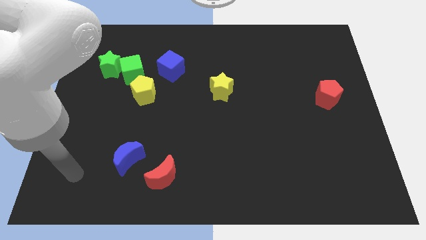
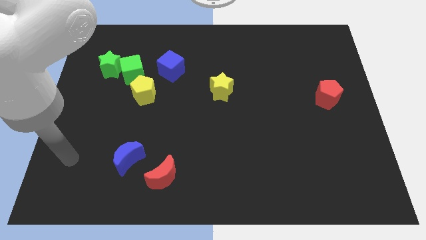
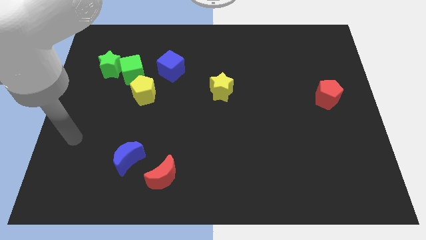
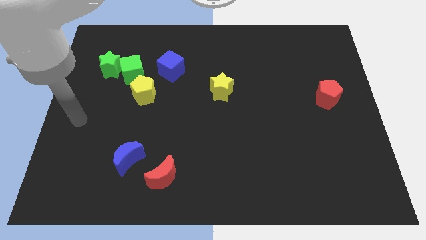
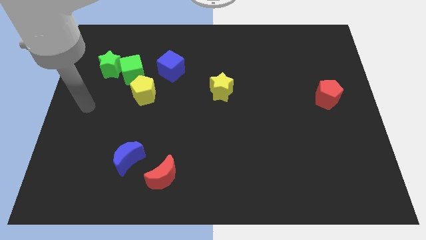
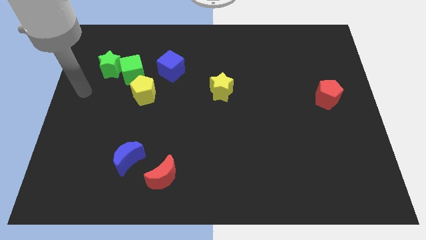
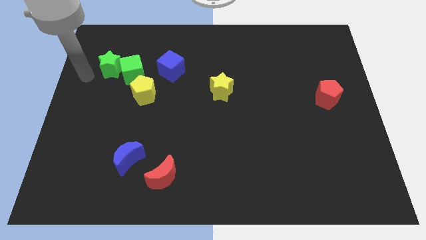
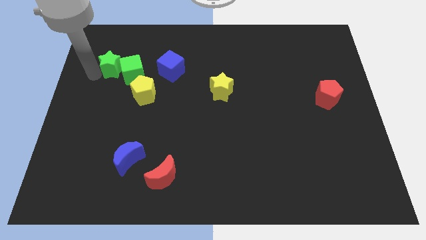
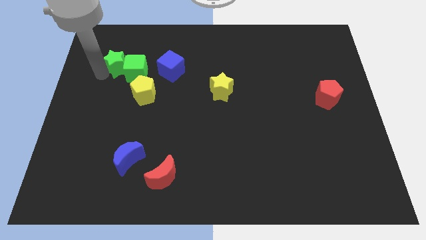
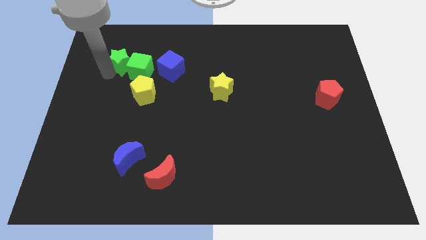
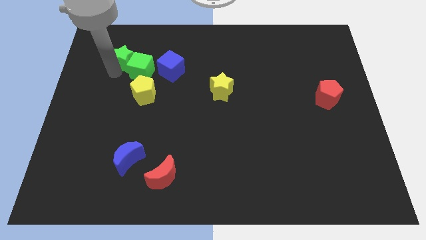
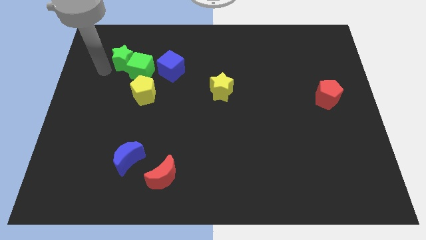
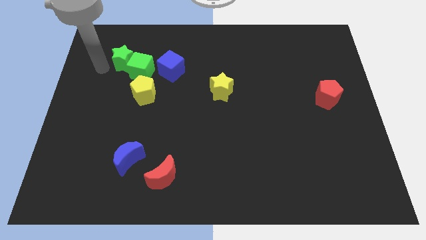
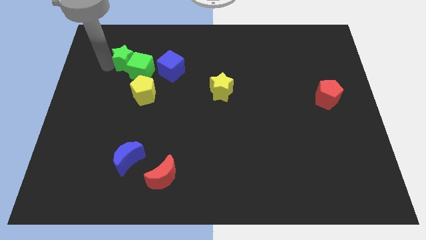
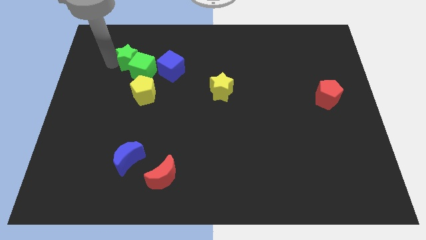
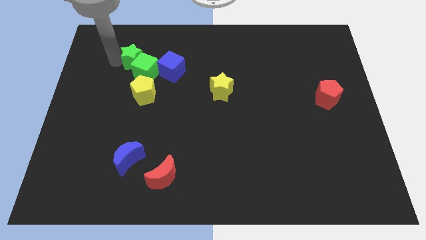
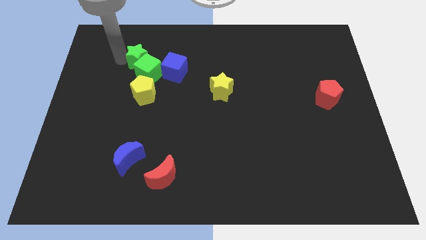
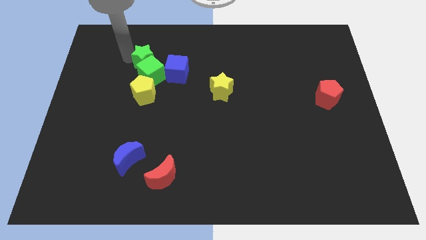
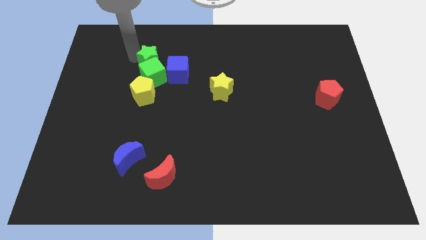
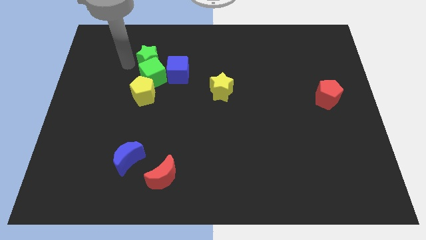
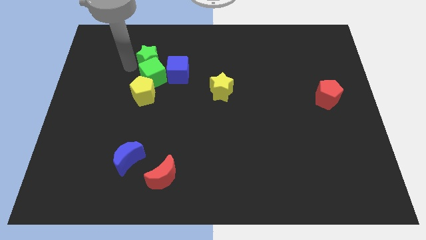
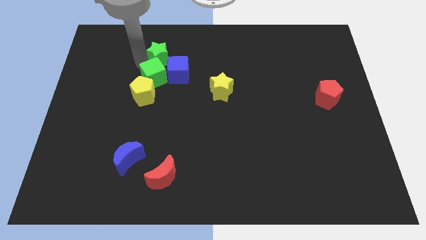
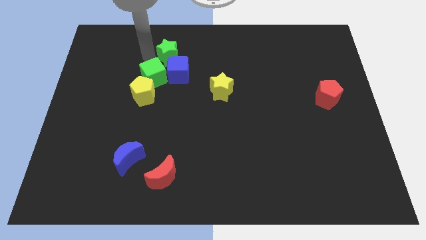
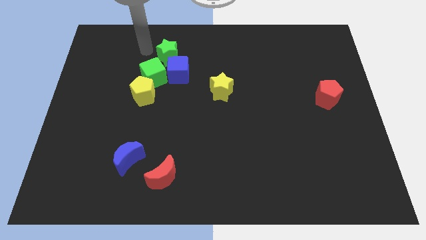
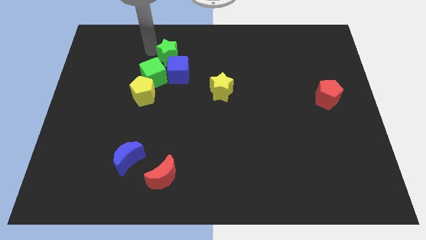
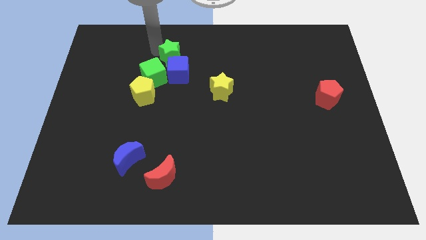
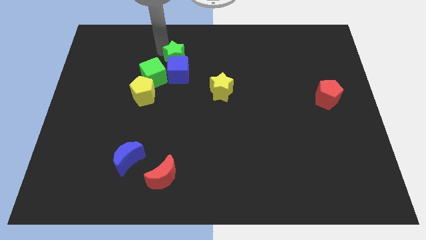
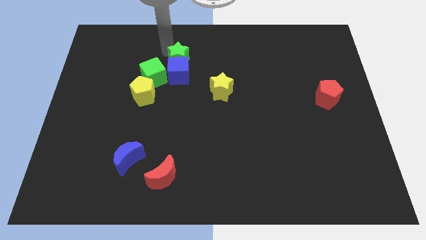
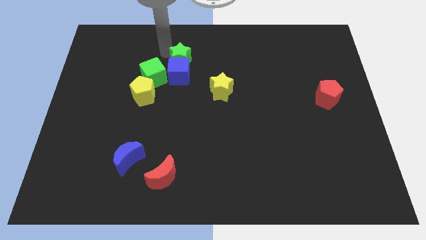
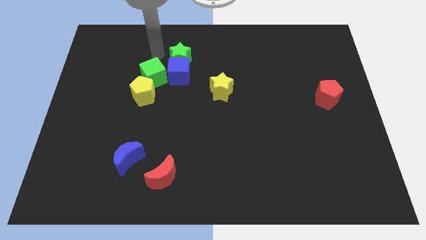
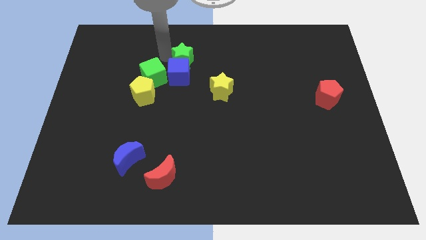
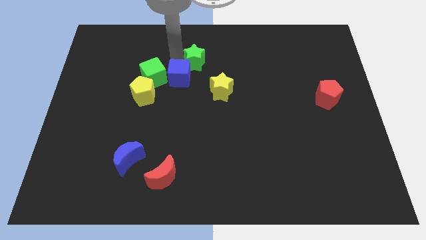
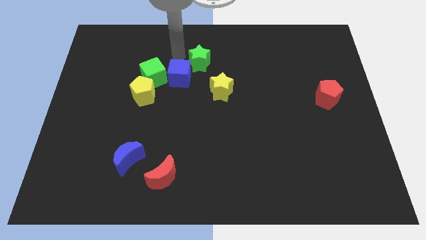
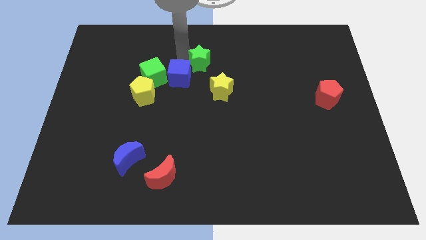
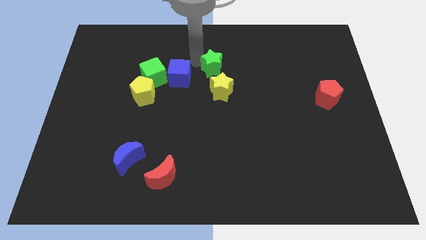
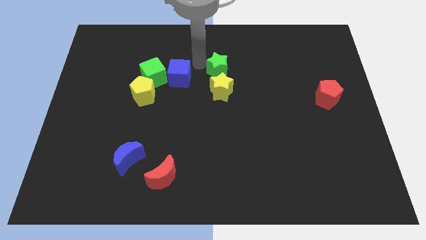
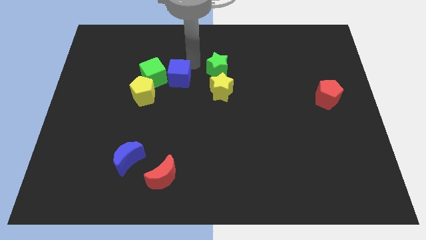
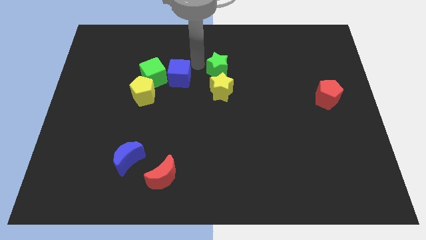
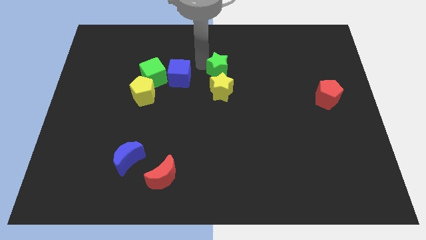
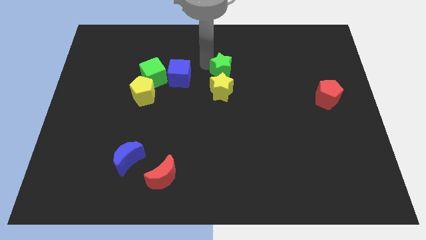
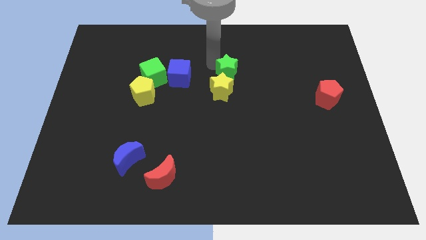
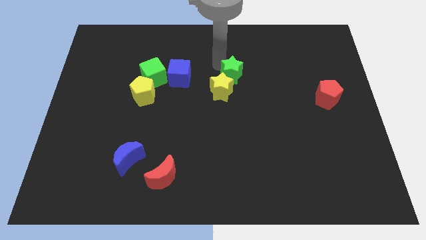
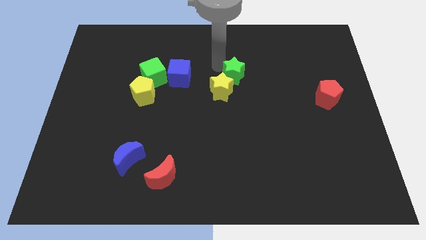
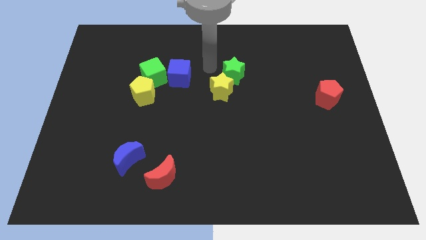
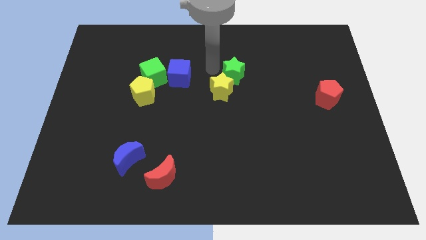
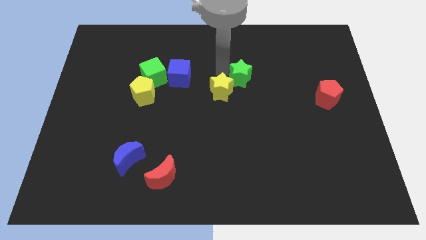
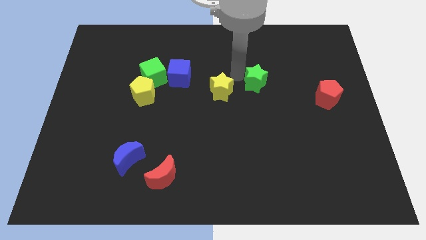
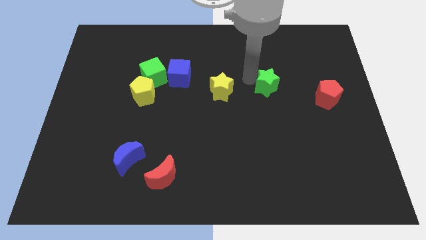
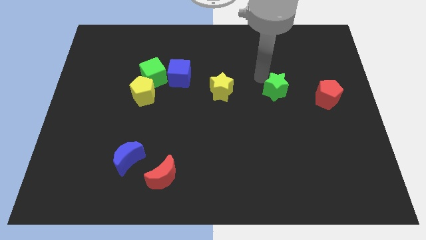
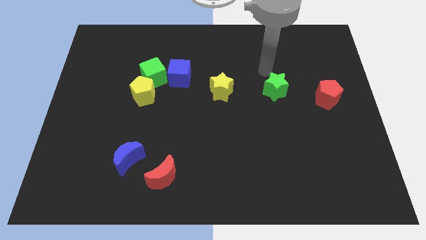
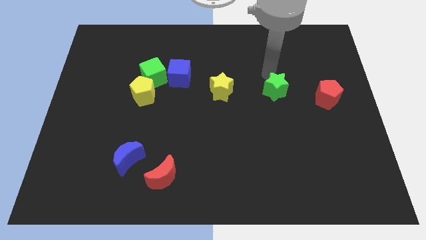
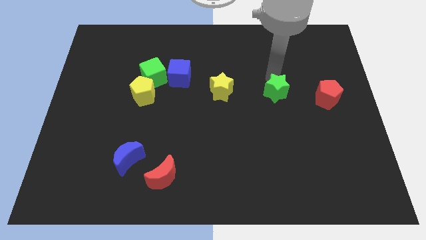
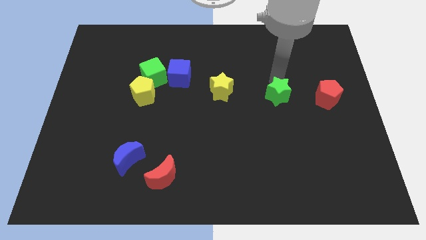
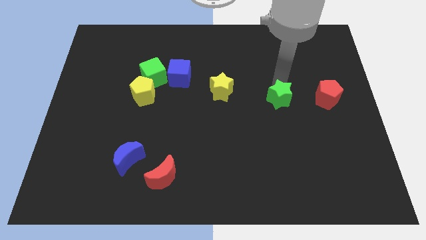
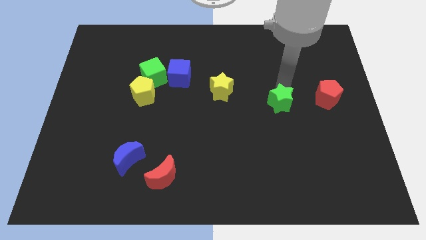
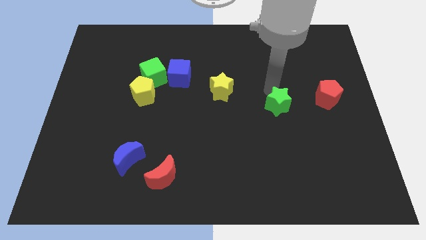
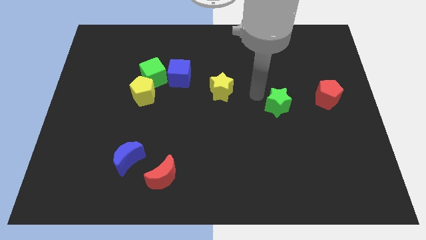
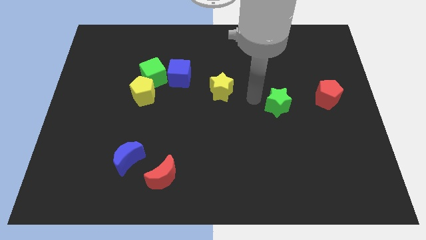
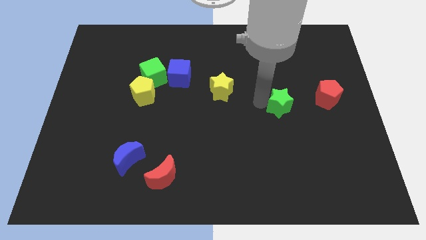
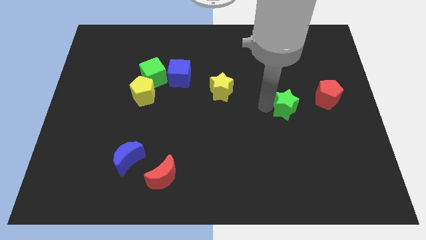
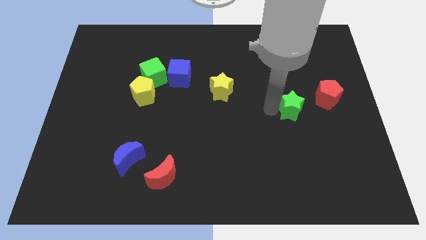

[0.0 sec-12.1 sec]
slide the green star to the bottom left of the red pentagon

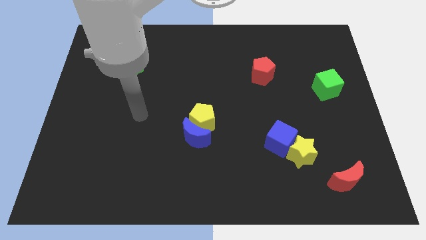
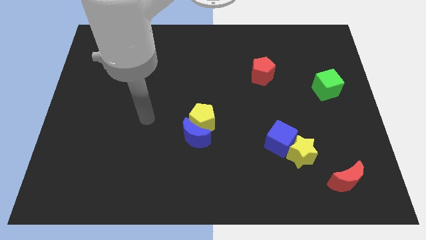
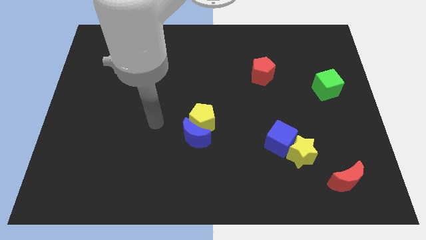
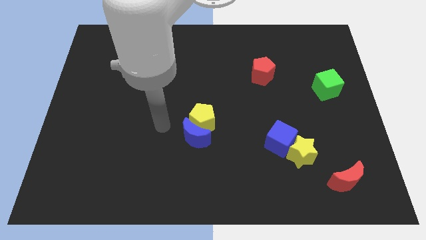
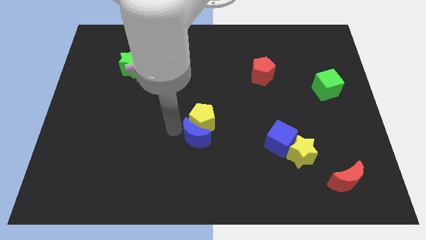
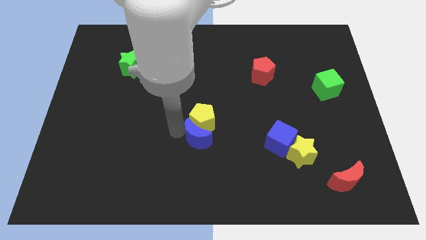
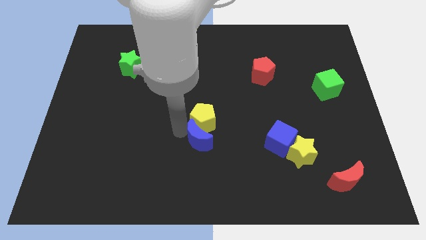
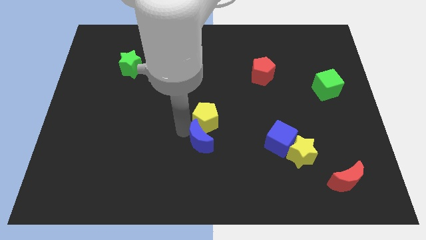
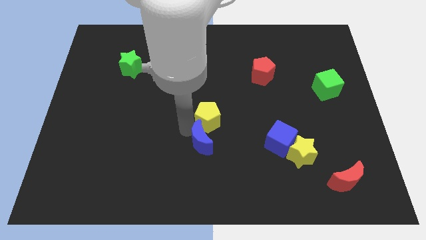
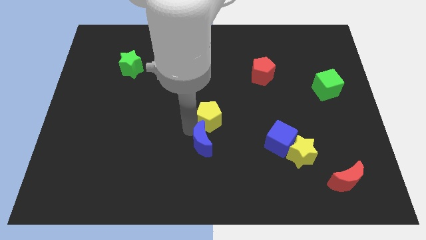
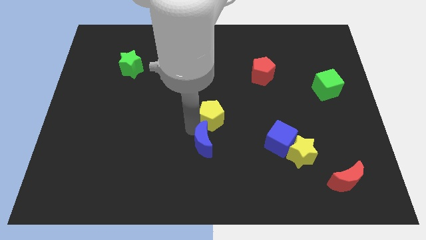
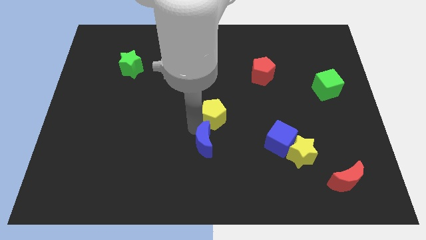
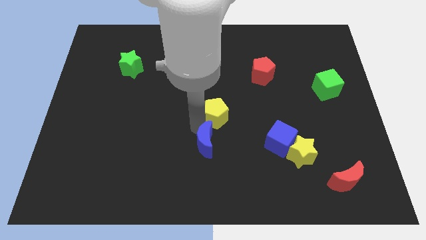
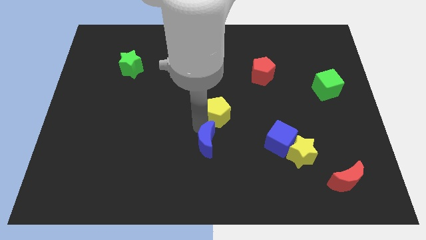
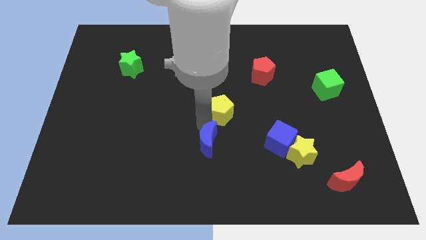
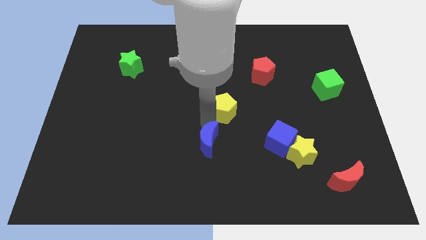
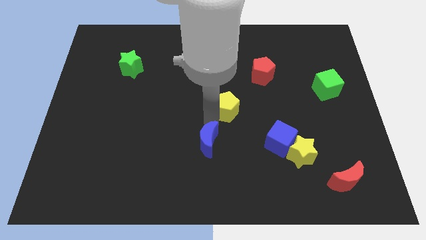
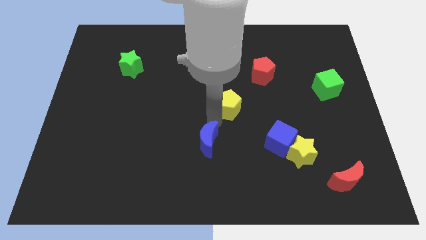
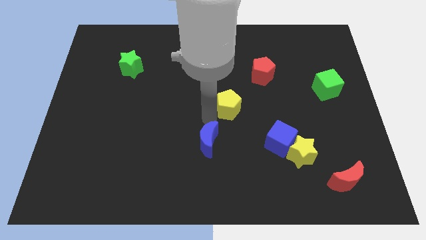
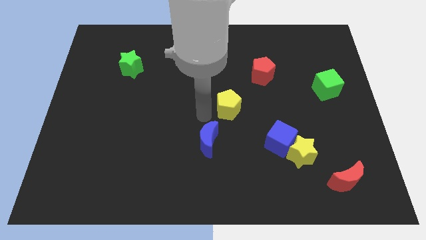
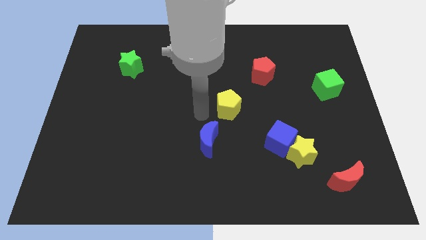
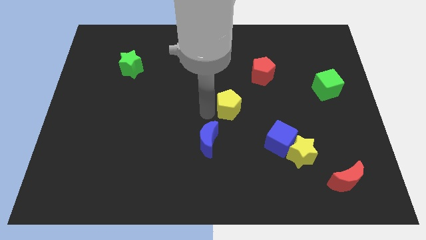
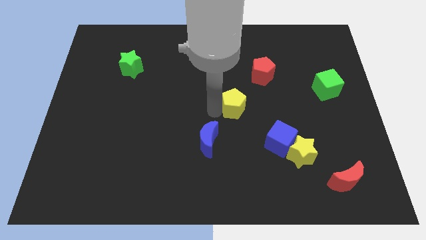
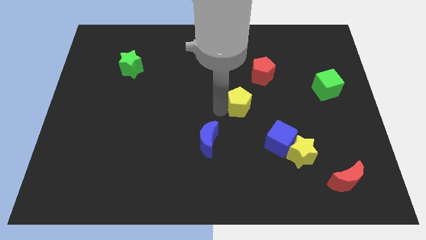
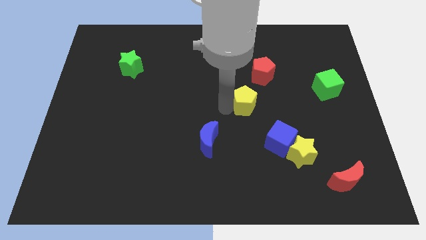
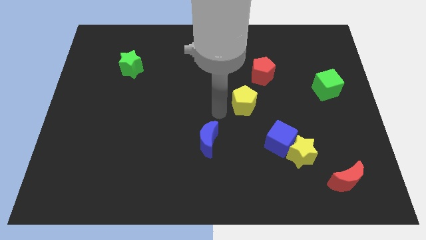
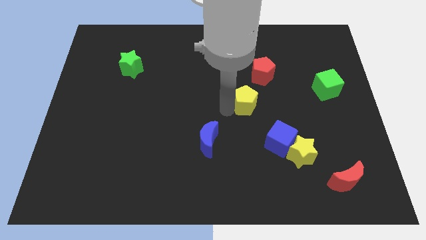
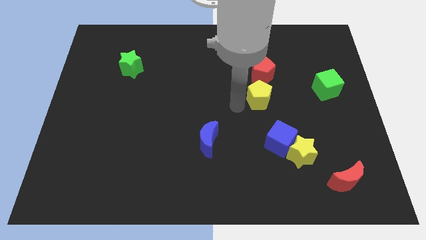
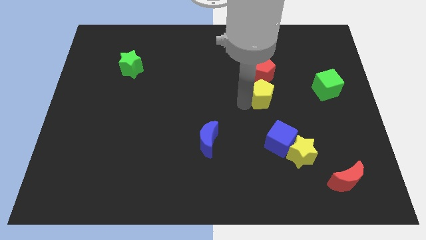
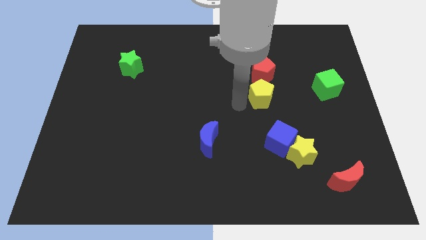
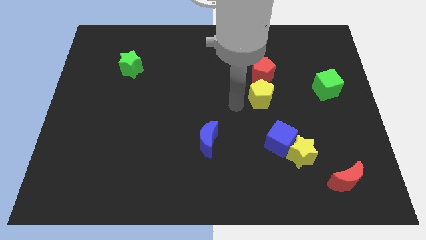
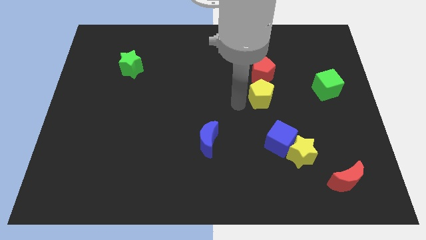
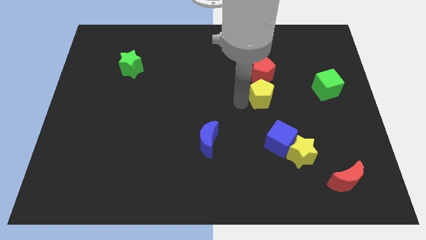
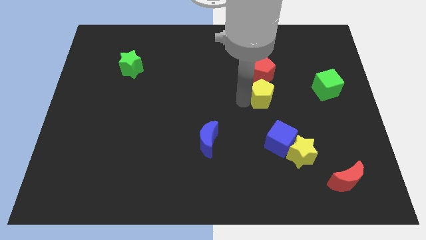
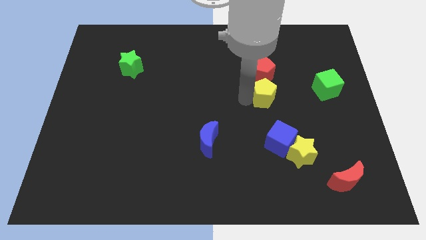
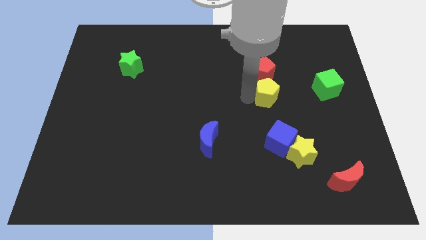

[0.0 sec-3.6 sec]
put the yellow pentagon to the bottom right side of the red pentagon
